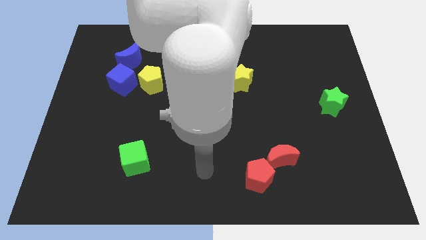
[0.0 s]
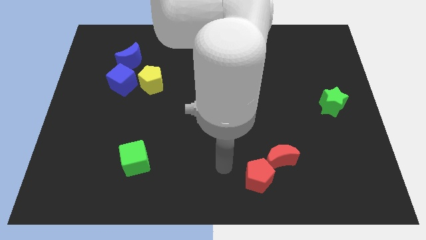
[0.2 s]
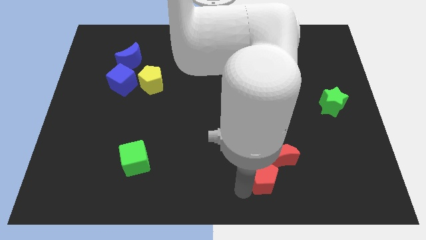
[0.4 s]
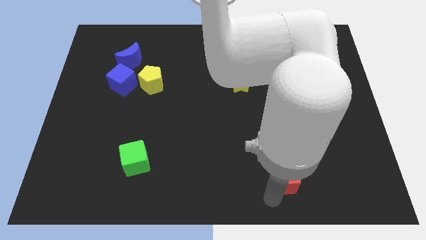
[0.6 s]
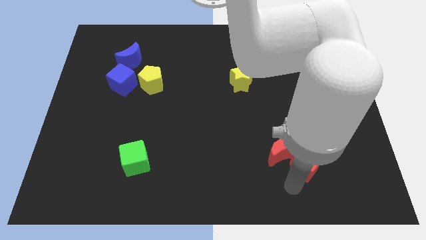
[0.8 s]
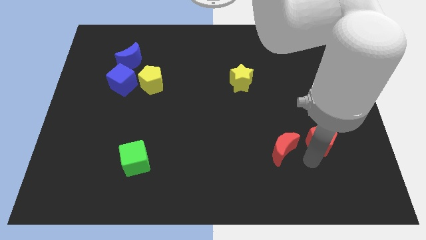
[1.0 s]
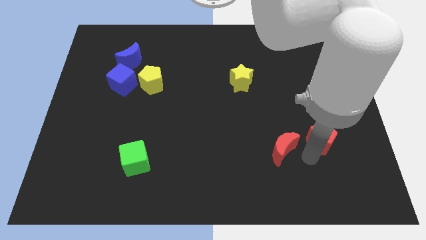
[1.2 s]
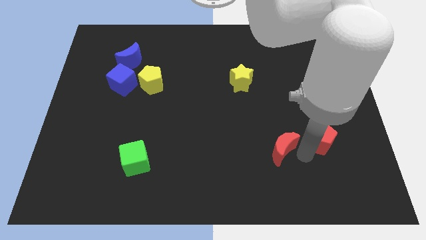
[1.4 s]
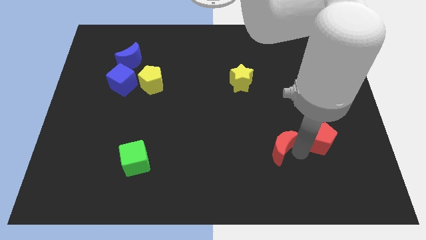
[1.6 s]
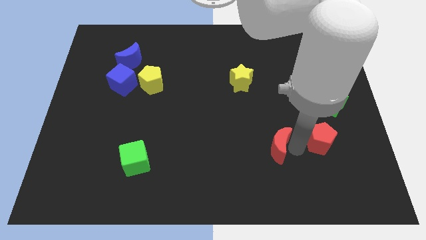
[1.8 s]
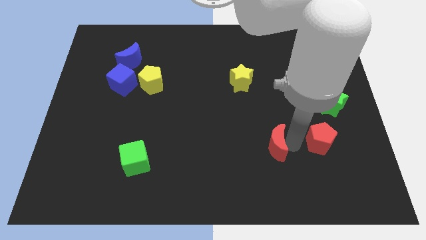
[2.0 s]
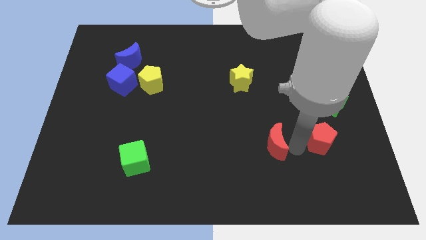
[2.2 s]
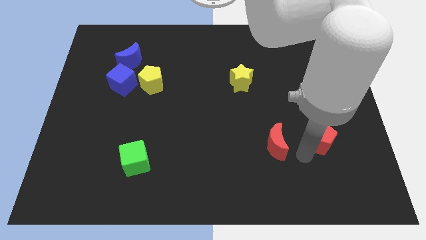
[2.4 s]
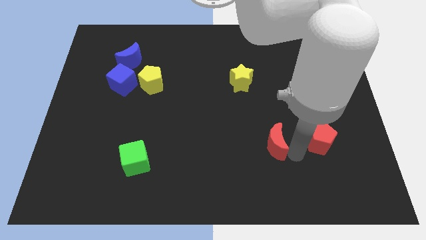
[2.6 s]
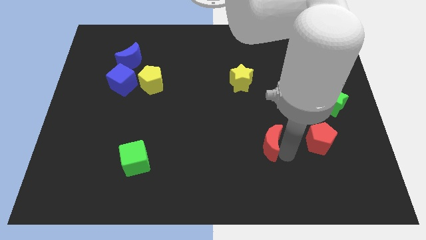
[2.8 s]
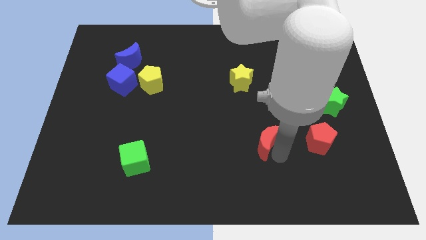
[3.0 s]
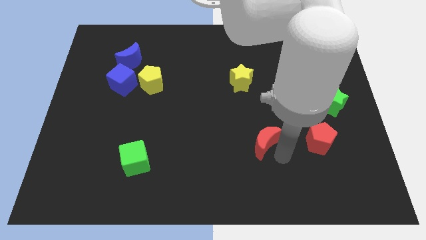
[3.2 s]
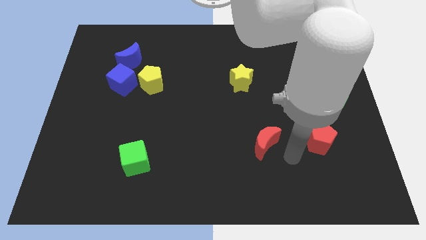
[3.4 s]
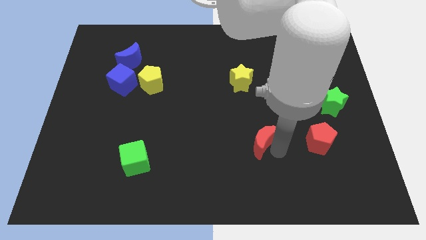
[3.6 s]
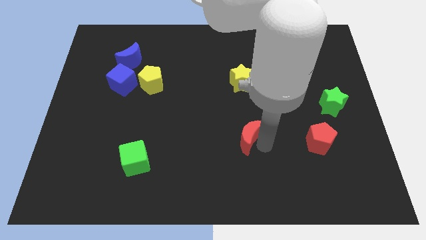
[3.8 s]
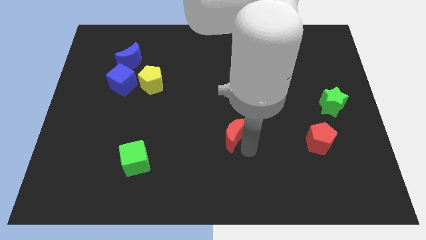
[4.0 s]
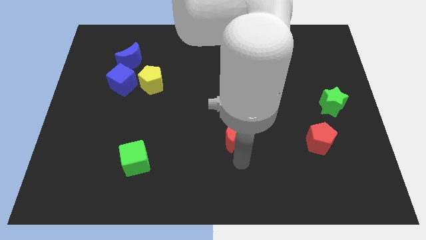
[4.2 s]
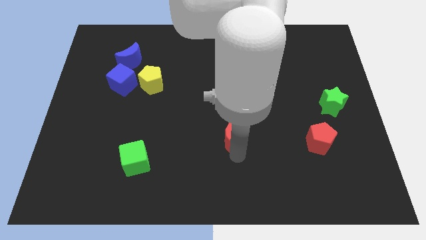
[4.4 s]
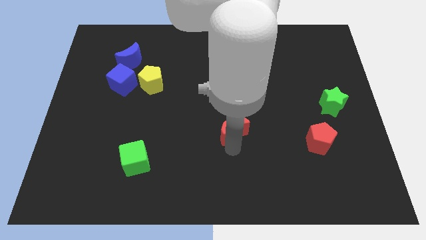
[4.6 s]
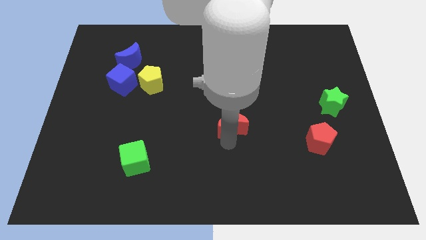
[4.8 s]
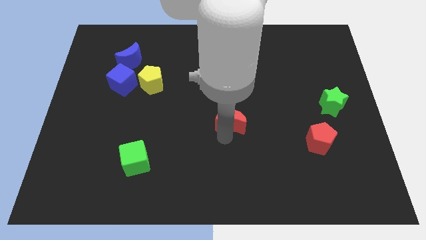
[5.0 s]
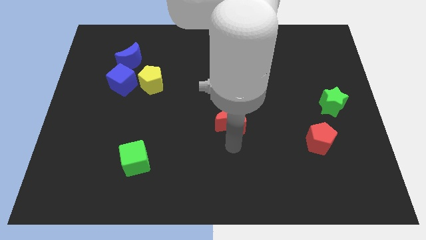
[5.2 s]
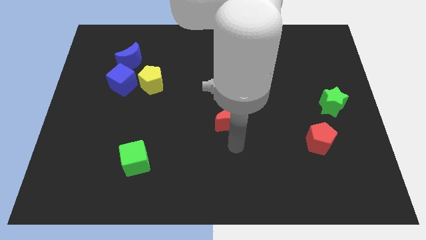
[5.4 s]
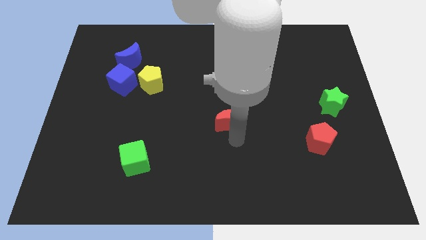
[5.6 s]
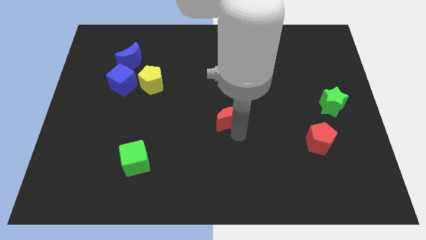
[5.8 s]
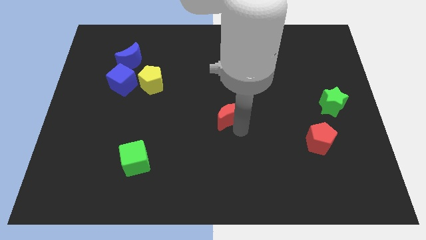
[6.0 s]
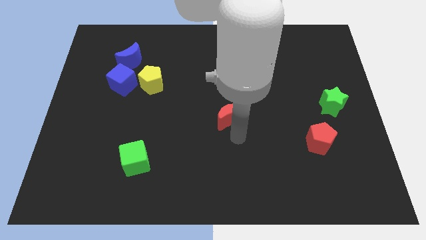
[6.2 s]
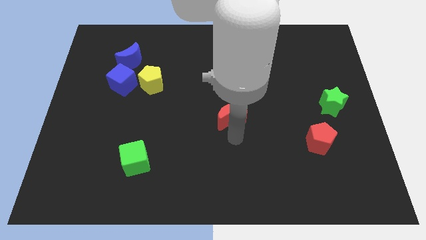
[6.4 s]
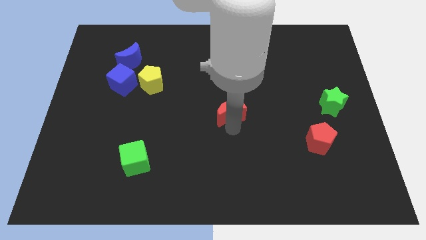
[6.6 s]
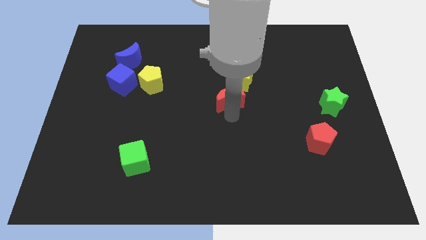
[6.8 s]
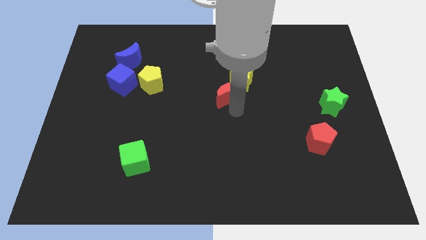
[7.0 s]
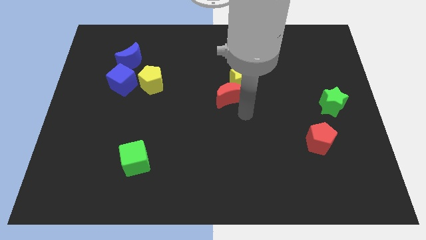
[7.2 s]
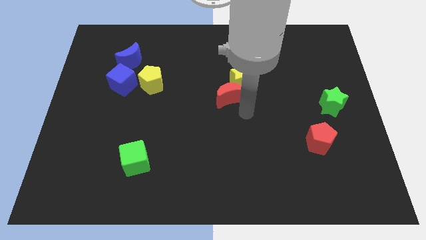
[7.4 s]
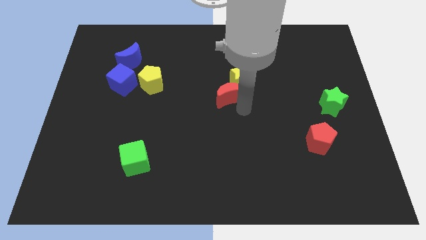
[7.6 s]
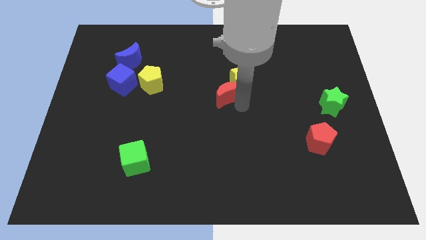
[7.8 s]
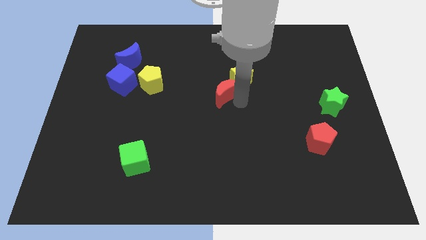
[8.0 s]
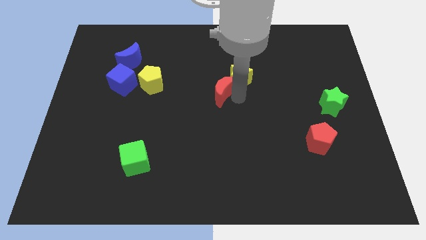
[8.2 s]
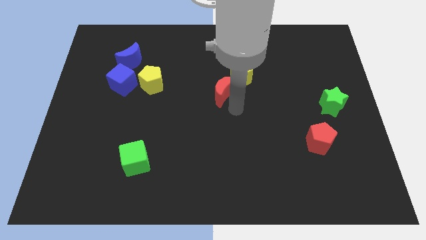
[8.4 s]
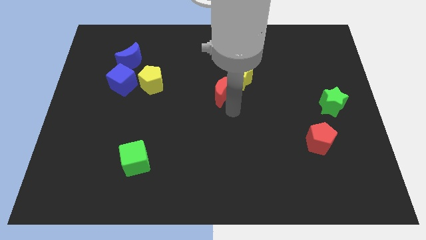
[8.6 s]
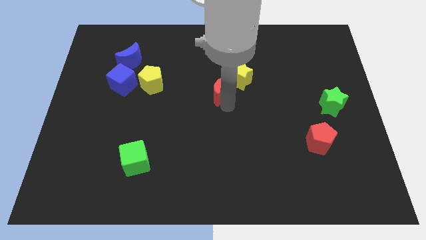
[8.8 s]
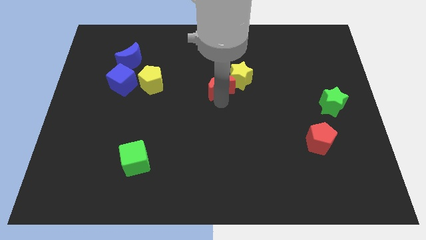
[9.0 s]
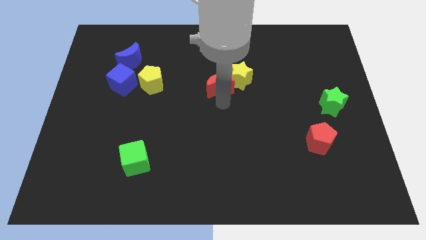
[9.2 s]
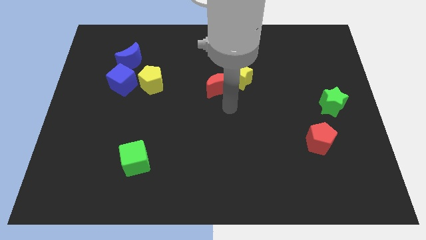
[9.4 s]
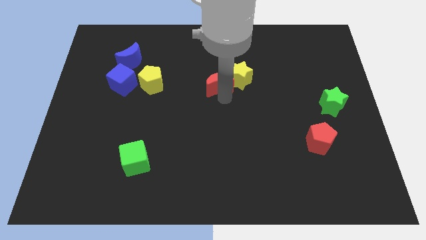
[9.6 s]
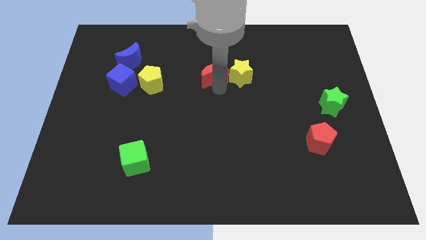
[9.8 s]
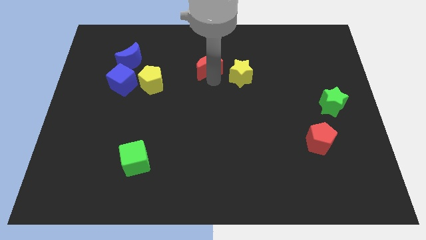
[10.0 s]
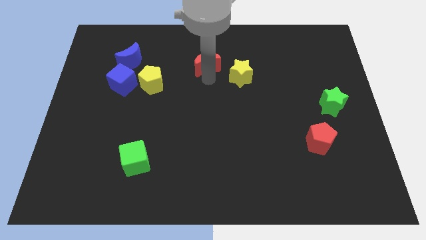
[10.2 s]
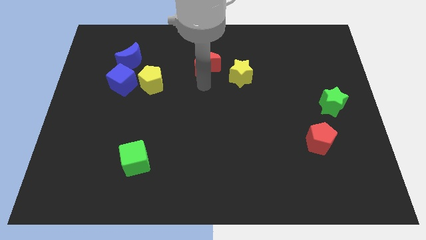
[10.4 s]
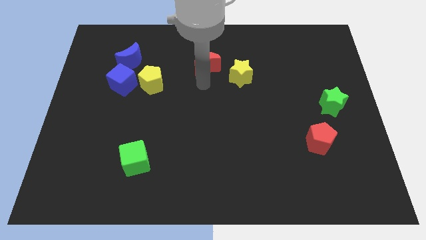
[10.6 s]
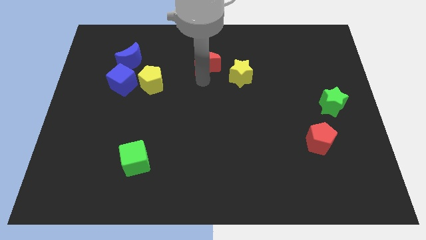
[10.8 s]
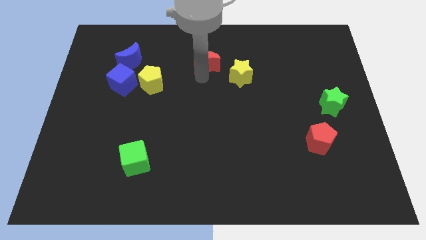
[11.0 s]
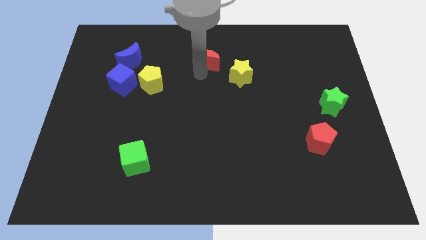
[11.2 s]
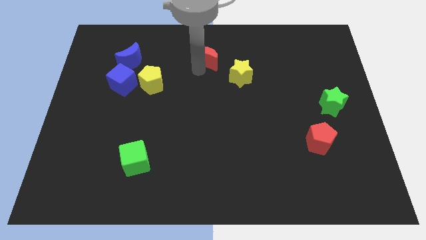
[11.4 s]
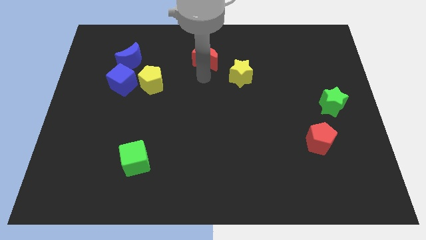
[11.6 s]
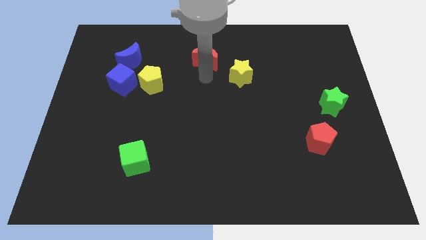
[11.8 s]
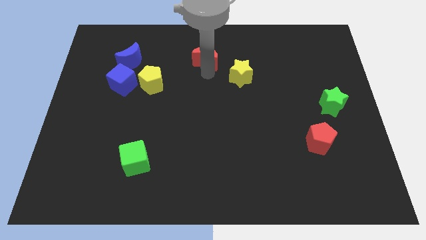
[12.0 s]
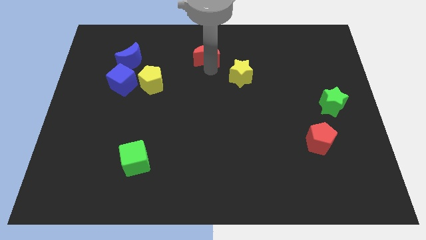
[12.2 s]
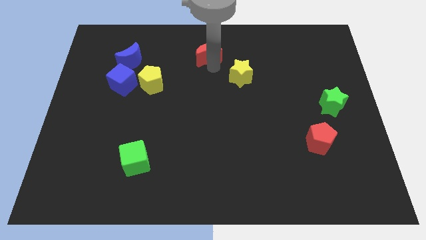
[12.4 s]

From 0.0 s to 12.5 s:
push the red moon to the towards your base
